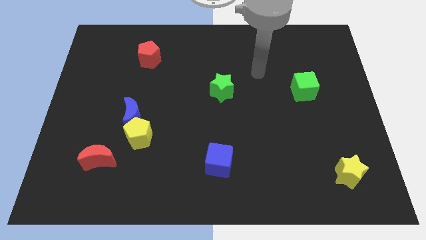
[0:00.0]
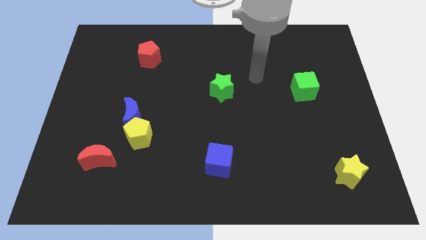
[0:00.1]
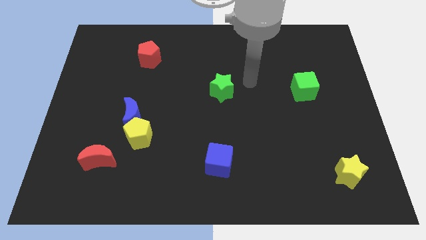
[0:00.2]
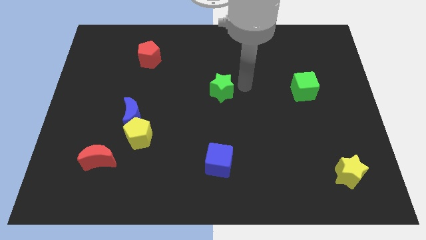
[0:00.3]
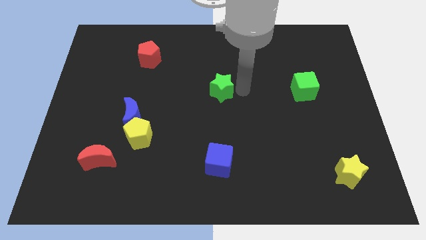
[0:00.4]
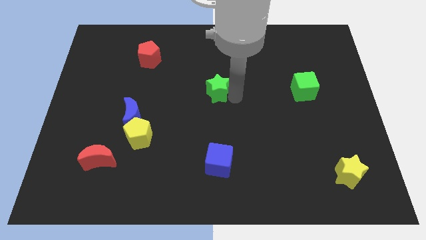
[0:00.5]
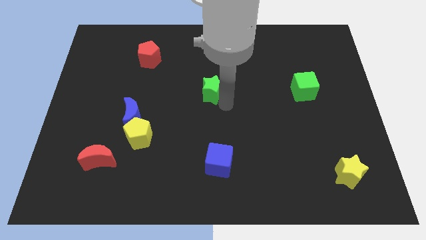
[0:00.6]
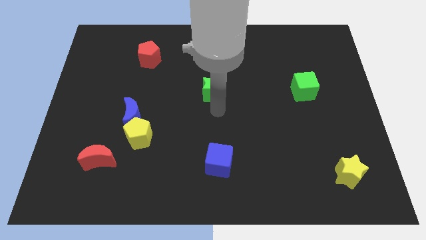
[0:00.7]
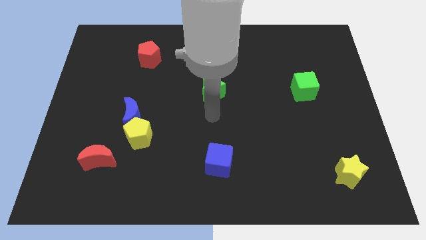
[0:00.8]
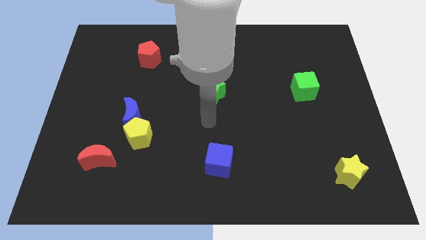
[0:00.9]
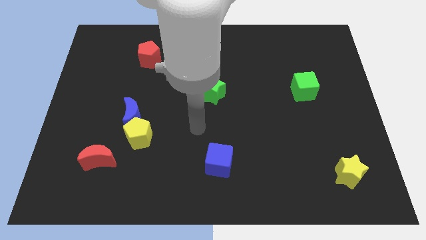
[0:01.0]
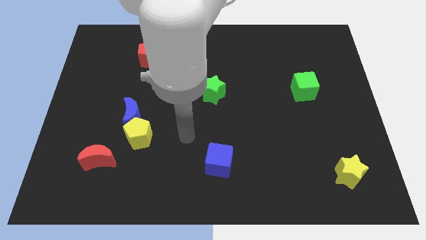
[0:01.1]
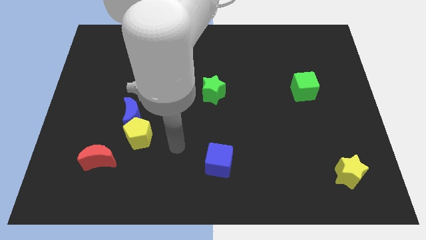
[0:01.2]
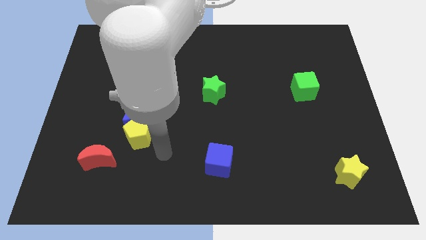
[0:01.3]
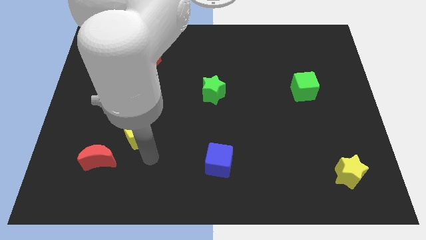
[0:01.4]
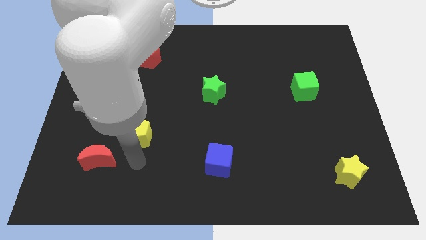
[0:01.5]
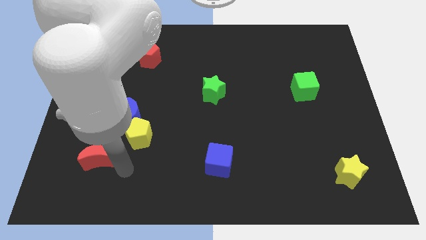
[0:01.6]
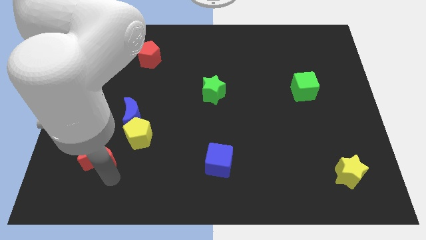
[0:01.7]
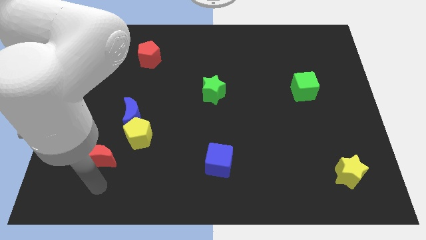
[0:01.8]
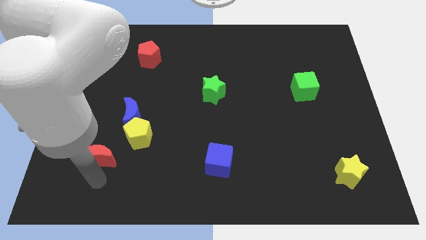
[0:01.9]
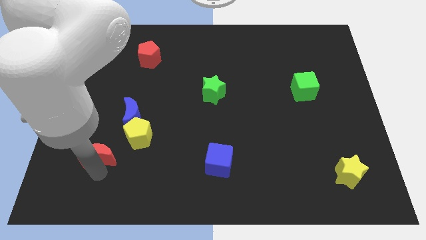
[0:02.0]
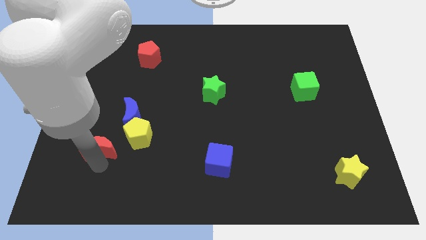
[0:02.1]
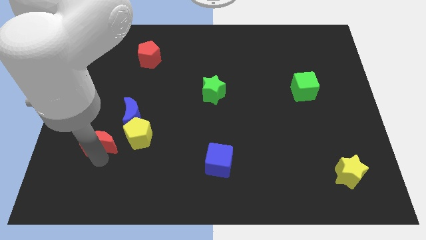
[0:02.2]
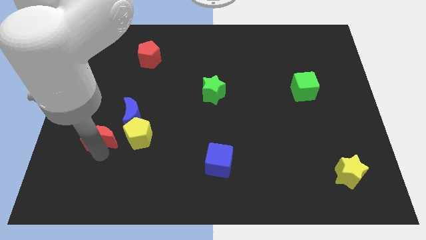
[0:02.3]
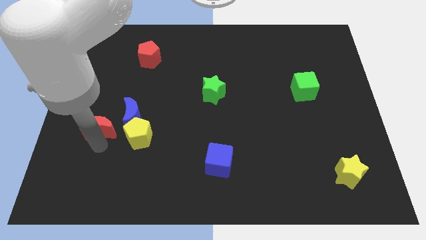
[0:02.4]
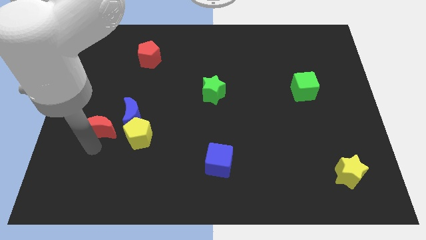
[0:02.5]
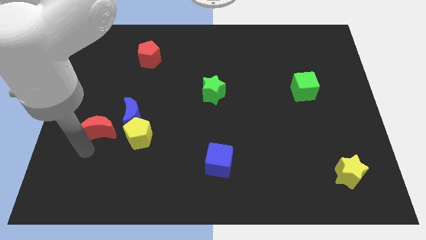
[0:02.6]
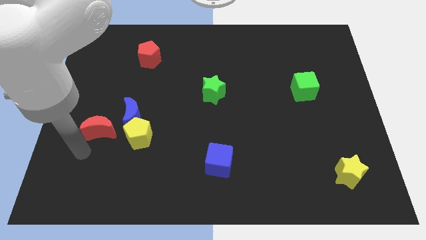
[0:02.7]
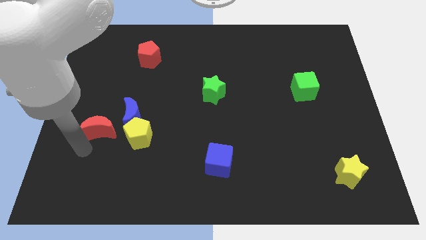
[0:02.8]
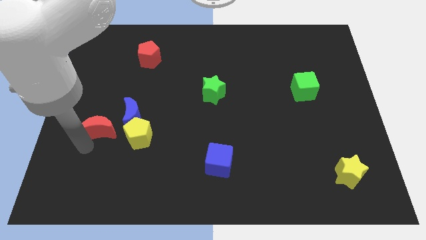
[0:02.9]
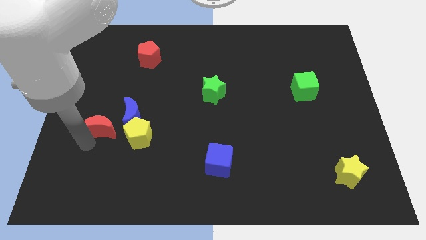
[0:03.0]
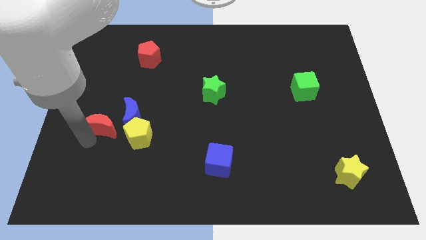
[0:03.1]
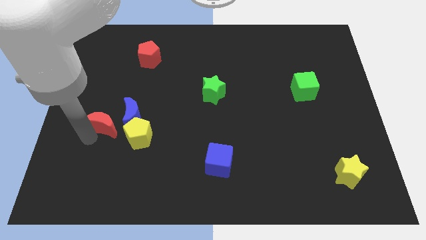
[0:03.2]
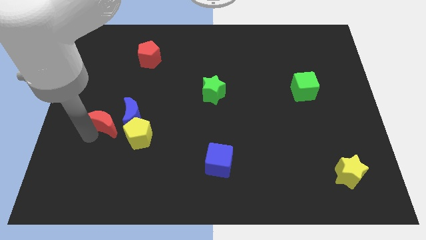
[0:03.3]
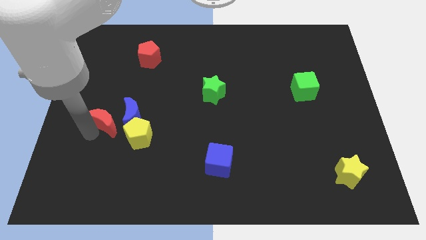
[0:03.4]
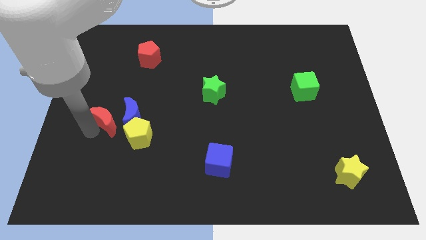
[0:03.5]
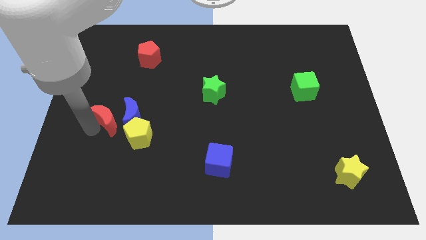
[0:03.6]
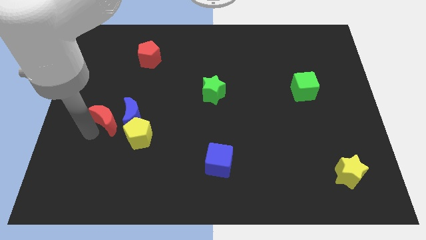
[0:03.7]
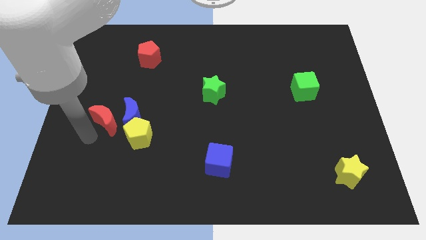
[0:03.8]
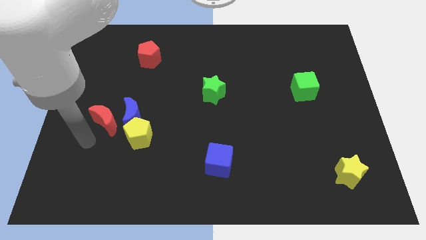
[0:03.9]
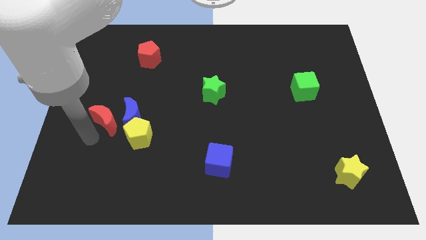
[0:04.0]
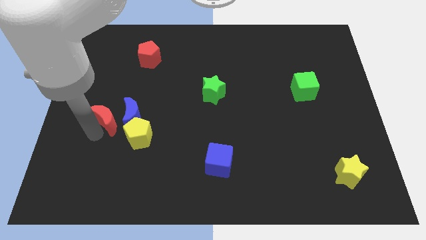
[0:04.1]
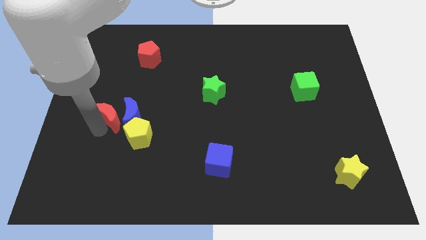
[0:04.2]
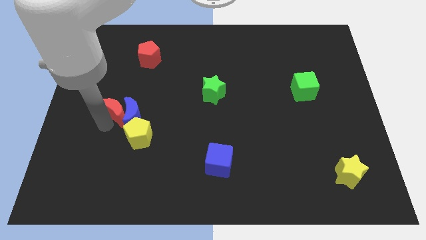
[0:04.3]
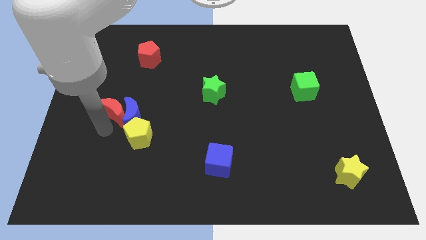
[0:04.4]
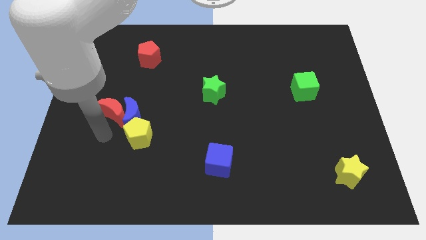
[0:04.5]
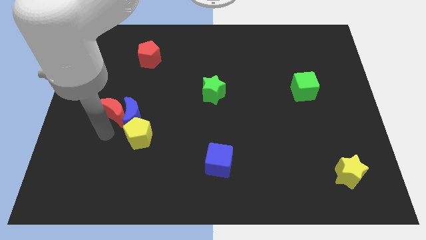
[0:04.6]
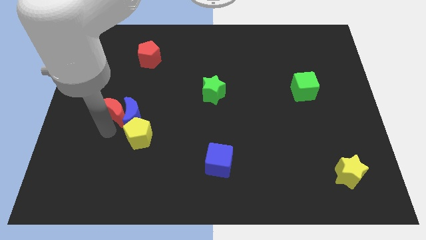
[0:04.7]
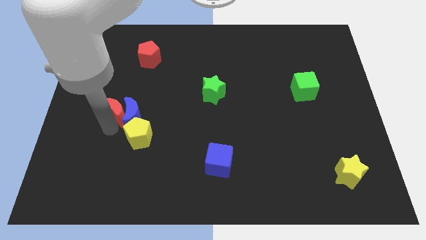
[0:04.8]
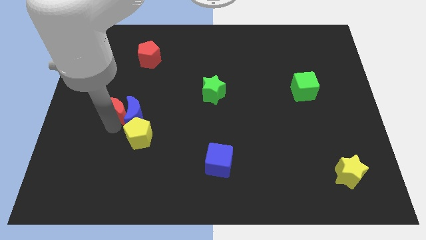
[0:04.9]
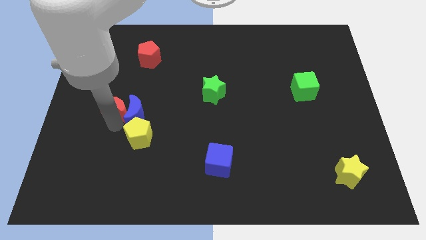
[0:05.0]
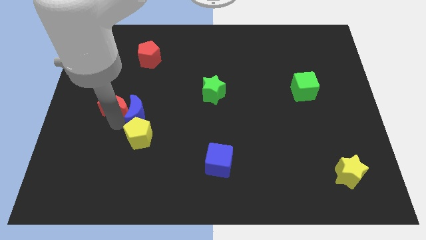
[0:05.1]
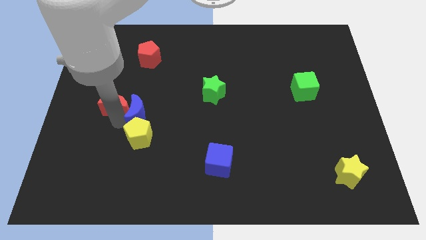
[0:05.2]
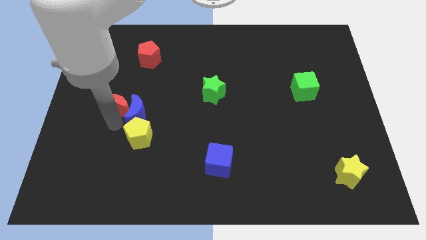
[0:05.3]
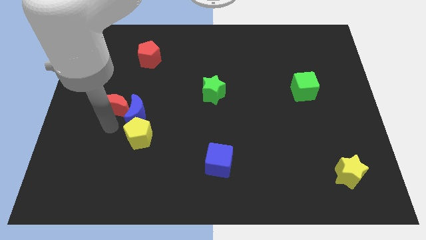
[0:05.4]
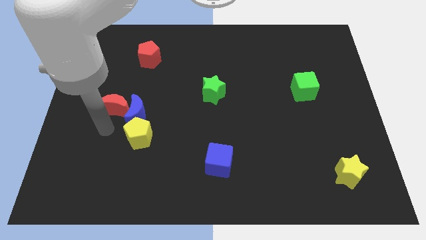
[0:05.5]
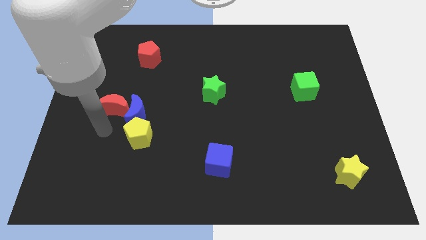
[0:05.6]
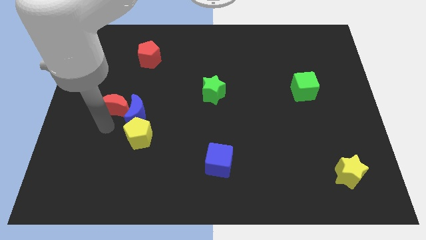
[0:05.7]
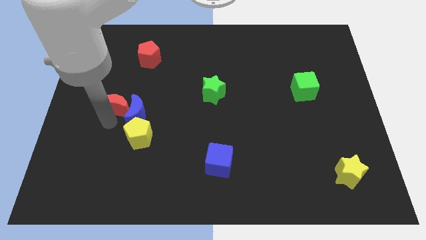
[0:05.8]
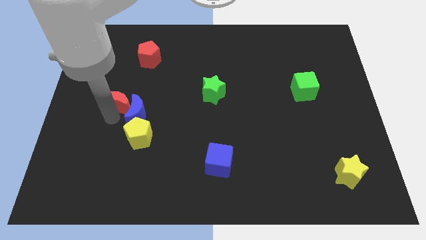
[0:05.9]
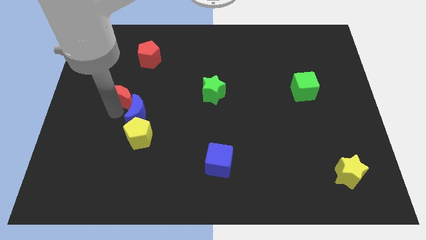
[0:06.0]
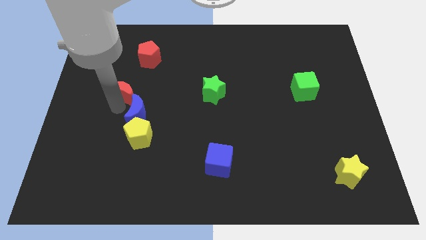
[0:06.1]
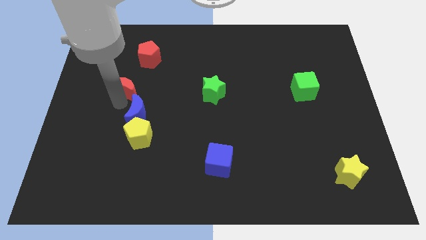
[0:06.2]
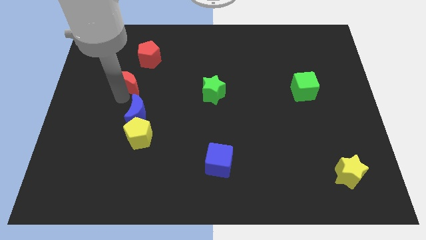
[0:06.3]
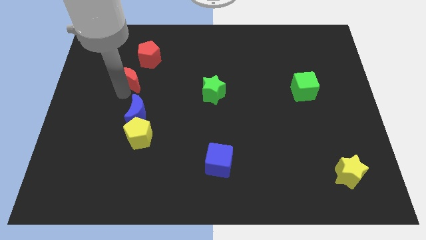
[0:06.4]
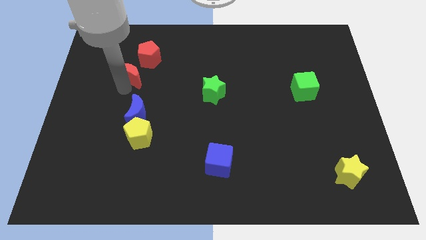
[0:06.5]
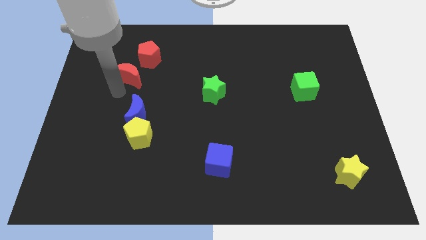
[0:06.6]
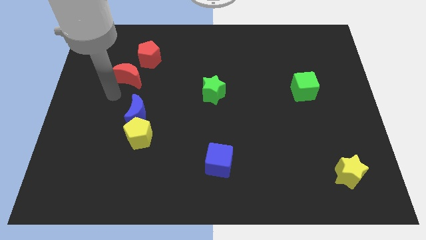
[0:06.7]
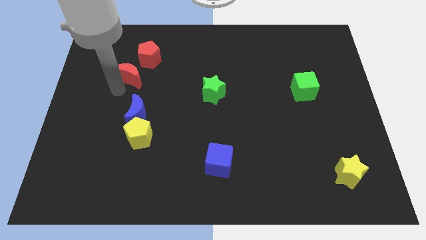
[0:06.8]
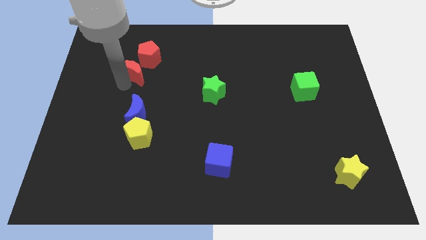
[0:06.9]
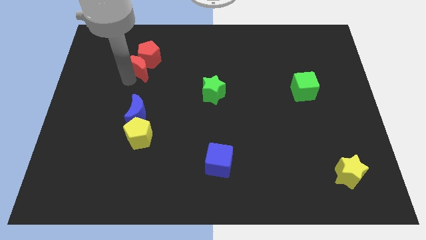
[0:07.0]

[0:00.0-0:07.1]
slide the red moon to the red pentagon
